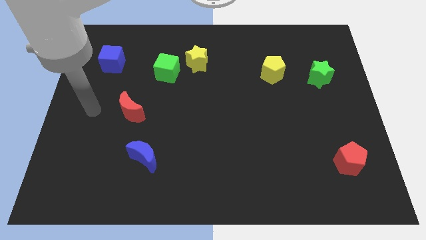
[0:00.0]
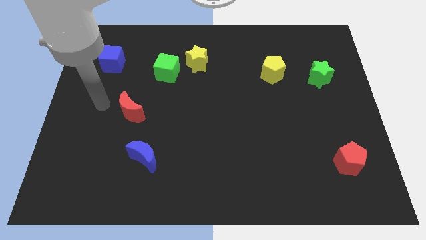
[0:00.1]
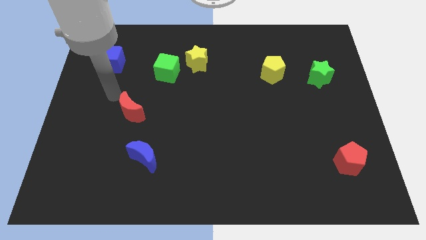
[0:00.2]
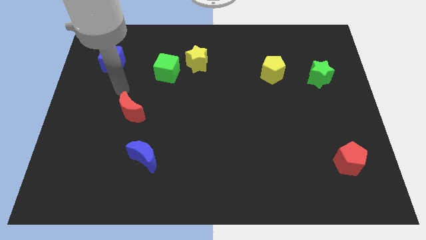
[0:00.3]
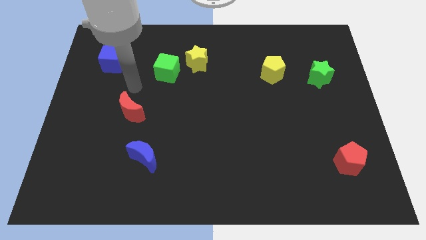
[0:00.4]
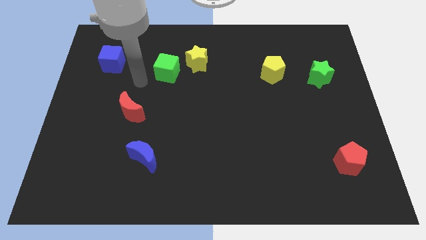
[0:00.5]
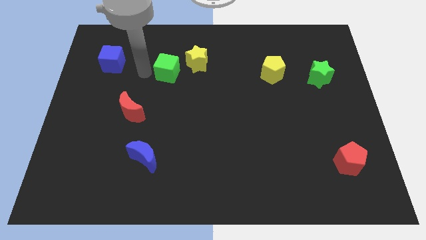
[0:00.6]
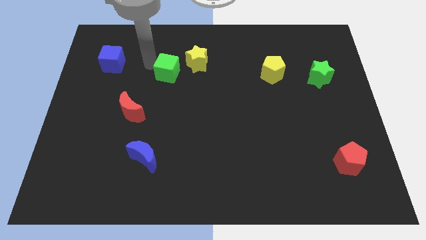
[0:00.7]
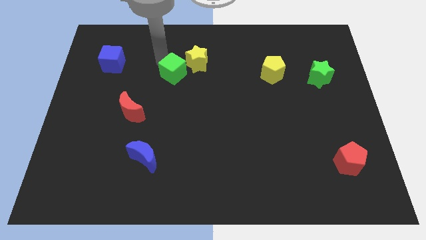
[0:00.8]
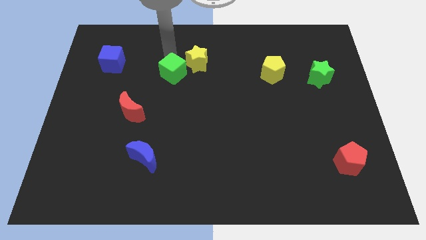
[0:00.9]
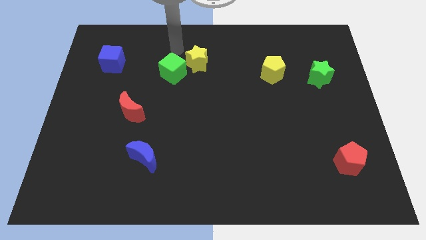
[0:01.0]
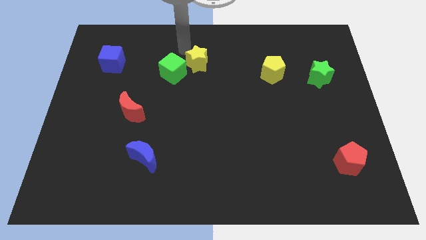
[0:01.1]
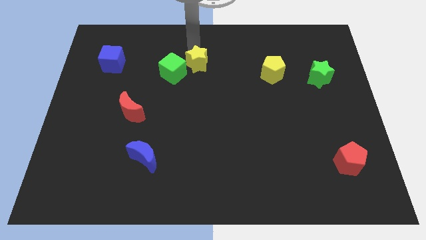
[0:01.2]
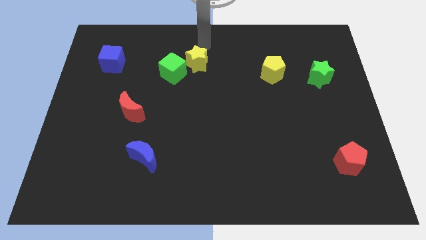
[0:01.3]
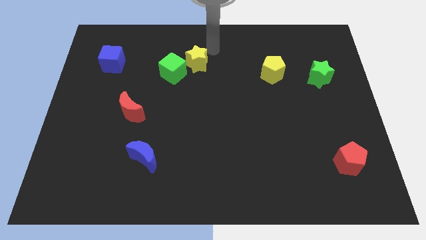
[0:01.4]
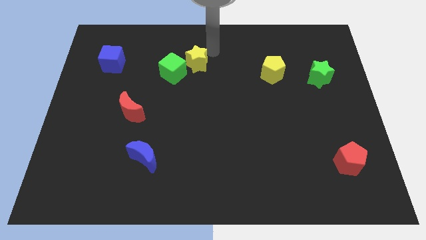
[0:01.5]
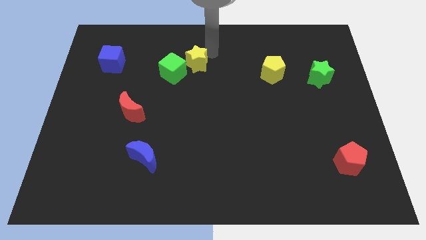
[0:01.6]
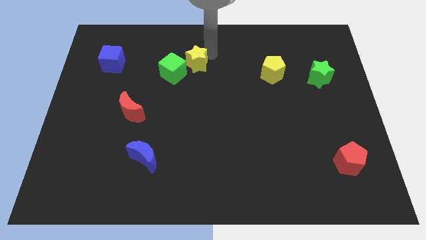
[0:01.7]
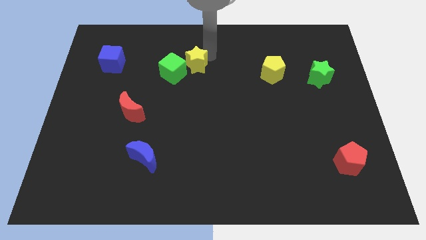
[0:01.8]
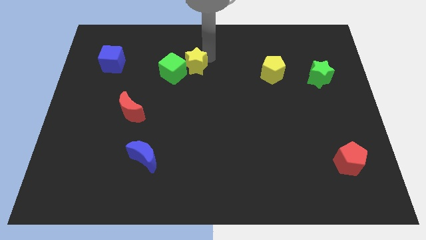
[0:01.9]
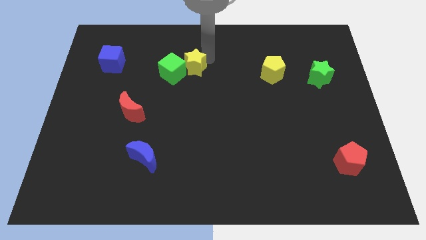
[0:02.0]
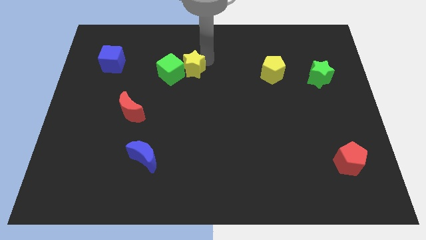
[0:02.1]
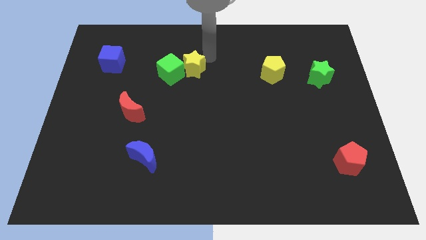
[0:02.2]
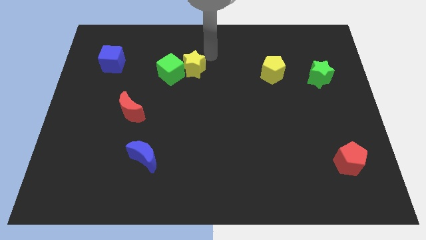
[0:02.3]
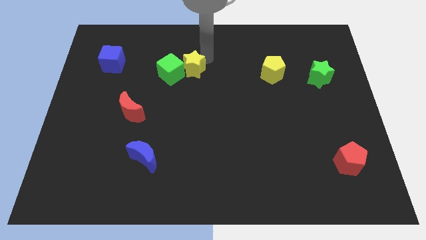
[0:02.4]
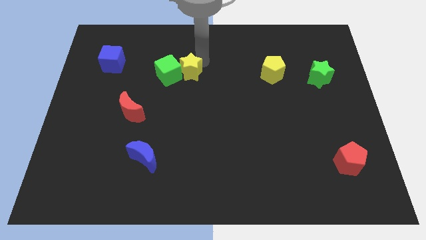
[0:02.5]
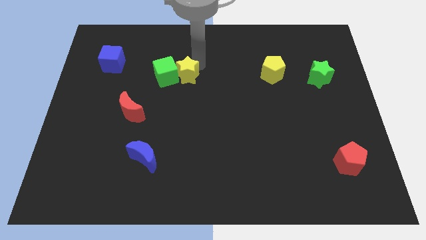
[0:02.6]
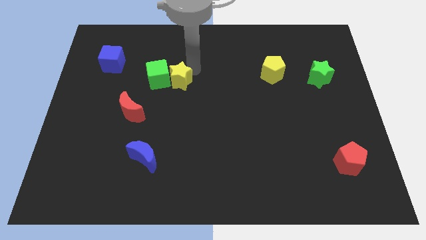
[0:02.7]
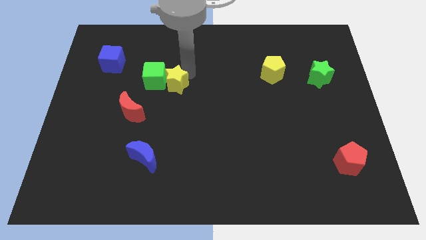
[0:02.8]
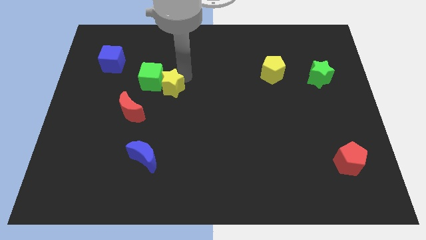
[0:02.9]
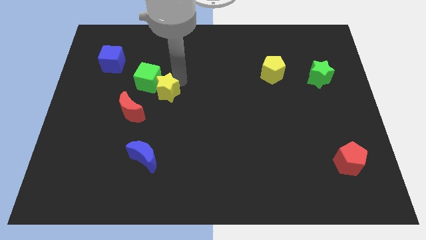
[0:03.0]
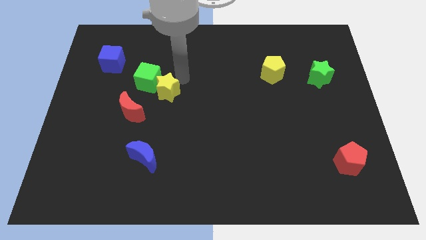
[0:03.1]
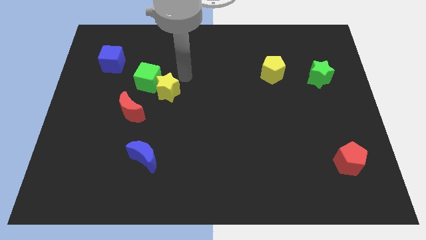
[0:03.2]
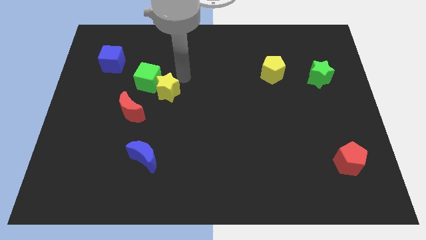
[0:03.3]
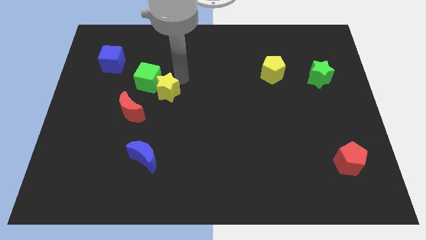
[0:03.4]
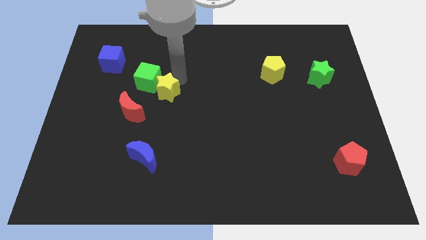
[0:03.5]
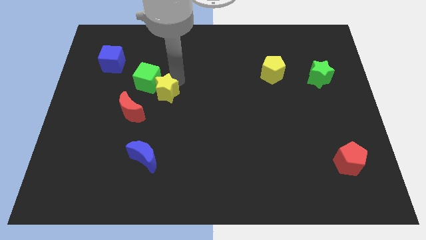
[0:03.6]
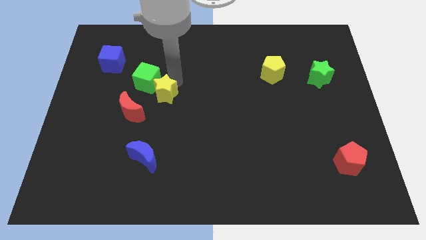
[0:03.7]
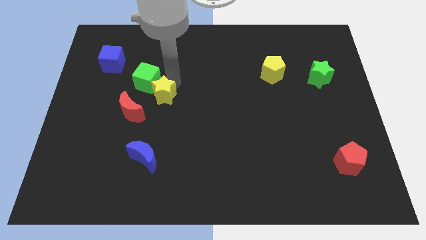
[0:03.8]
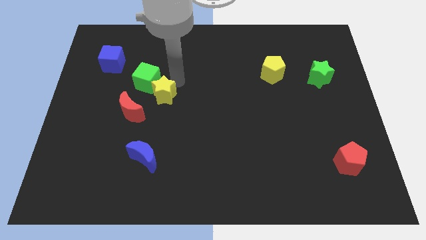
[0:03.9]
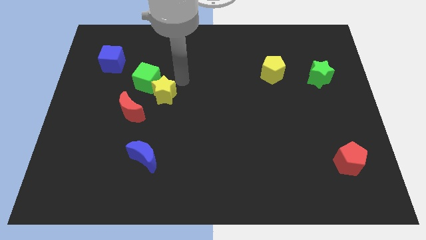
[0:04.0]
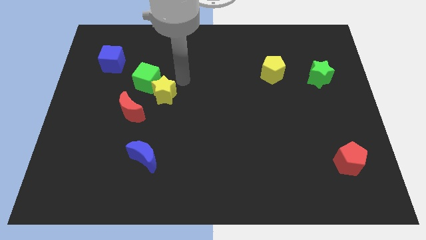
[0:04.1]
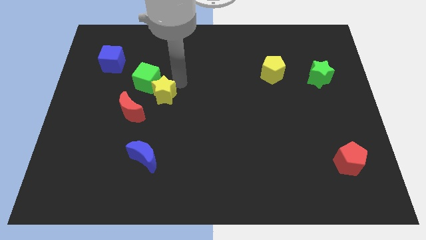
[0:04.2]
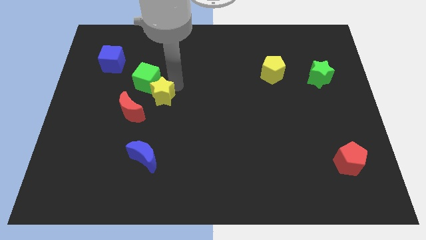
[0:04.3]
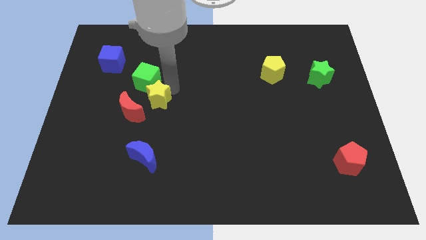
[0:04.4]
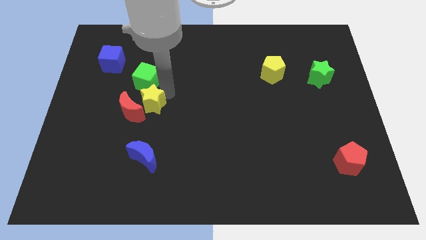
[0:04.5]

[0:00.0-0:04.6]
move the yellow star next to the red moon

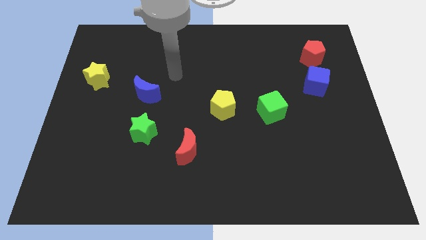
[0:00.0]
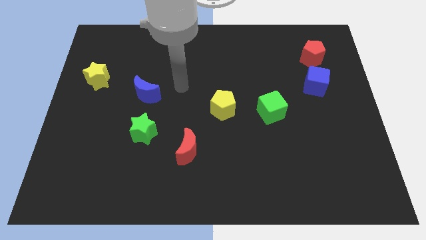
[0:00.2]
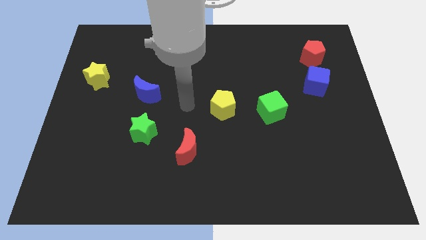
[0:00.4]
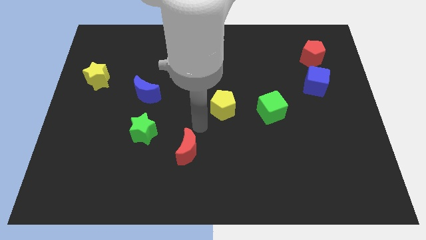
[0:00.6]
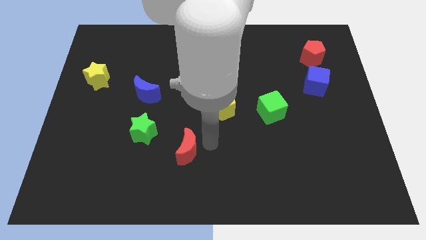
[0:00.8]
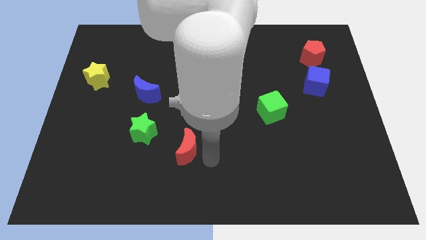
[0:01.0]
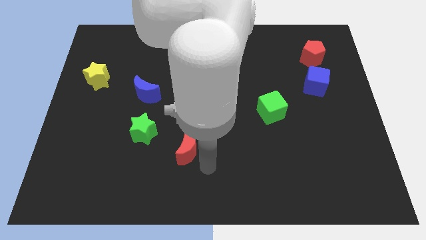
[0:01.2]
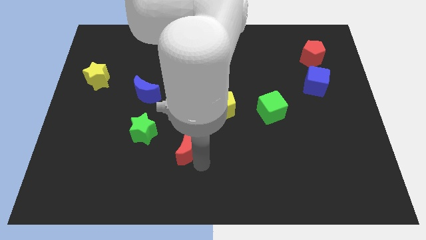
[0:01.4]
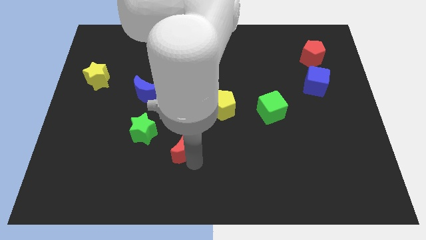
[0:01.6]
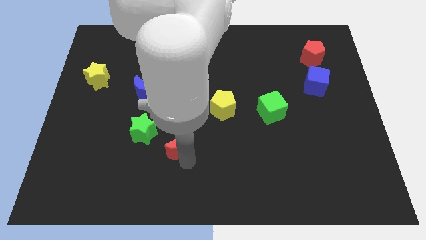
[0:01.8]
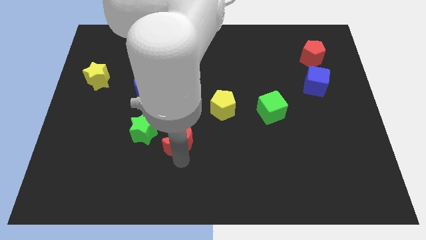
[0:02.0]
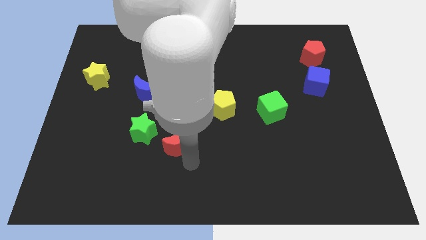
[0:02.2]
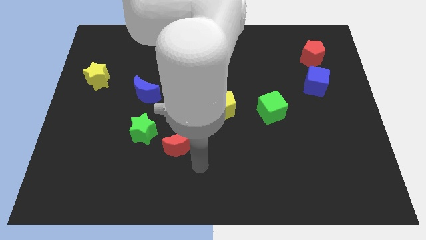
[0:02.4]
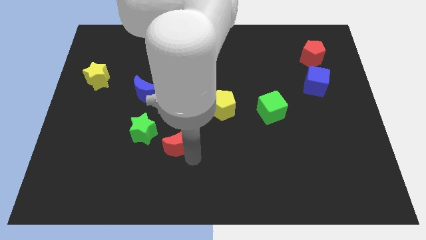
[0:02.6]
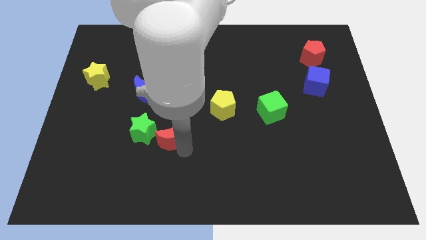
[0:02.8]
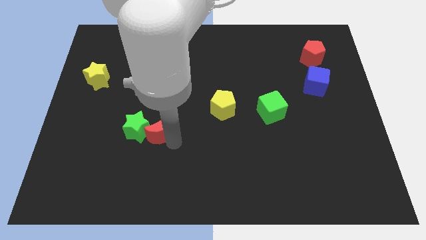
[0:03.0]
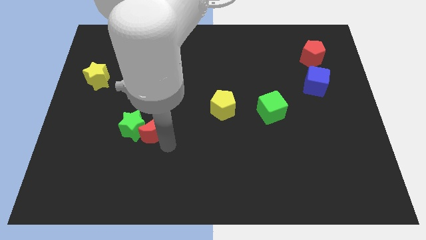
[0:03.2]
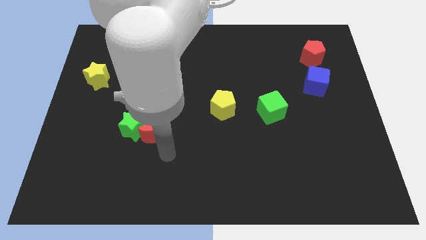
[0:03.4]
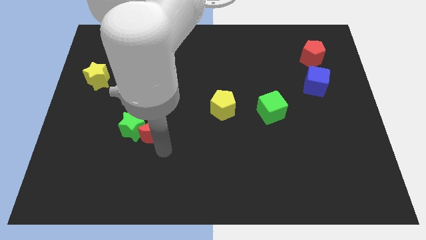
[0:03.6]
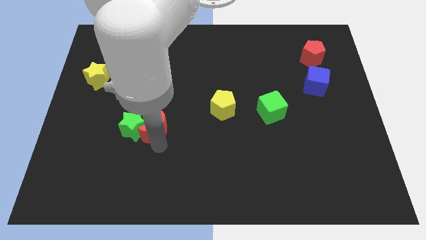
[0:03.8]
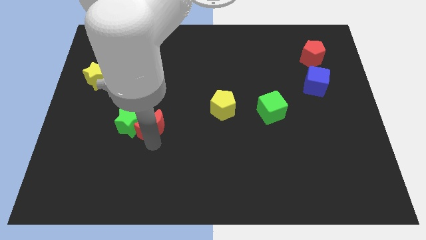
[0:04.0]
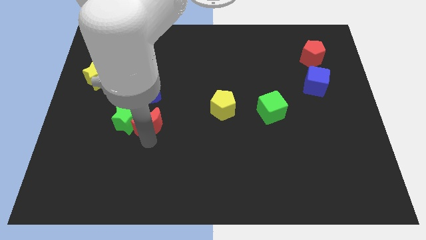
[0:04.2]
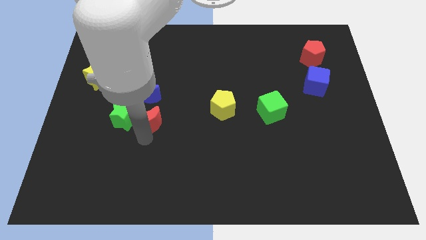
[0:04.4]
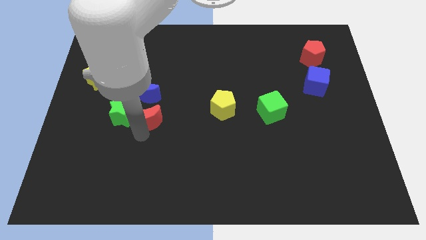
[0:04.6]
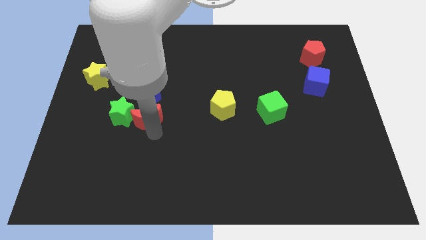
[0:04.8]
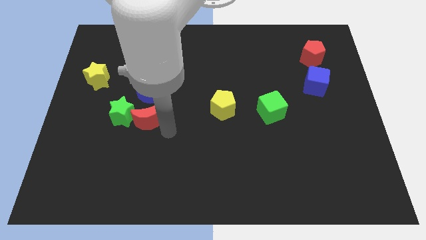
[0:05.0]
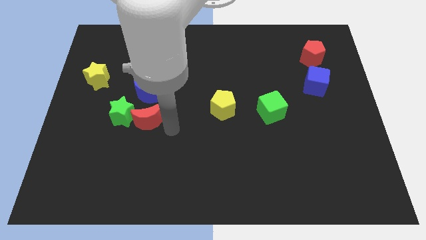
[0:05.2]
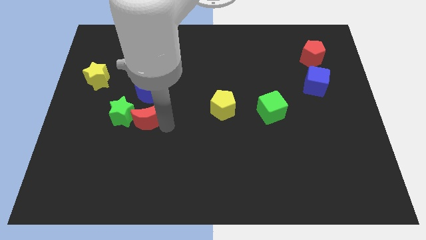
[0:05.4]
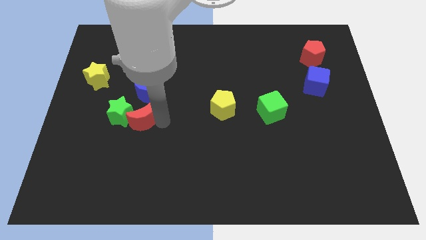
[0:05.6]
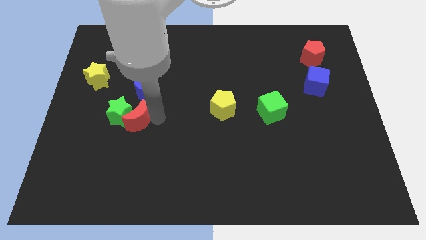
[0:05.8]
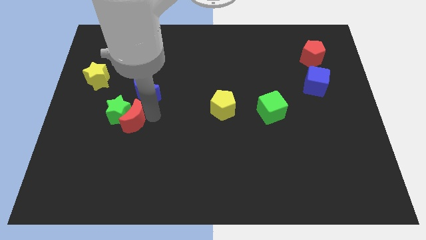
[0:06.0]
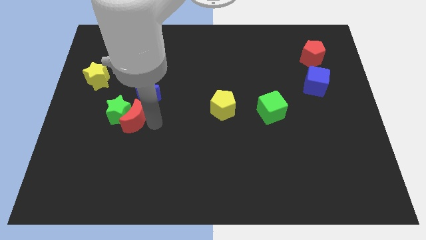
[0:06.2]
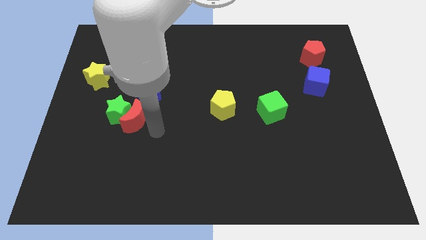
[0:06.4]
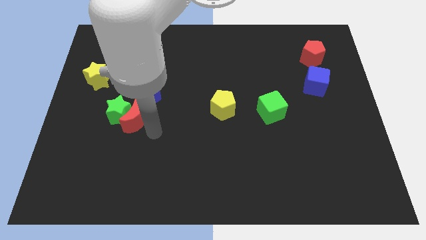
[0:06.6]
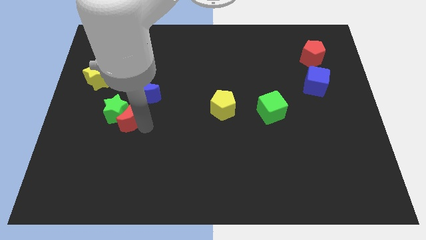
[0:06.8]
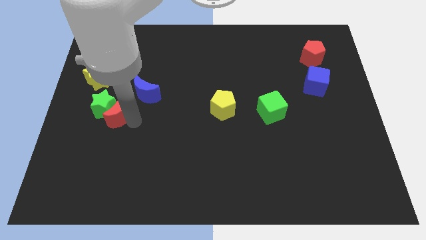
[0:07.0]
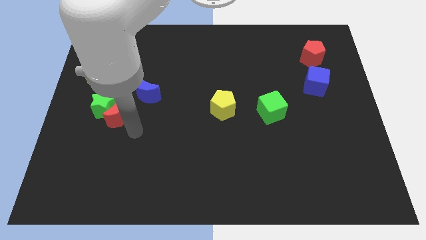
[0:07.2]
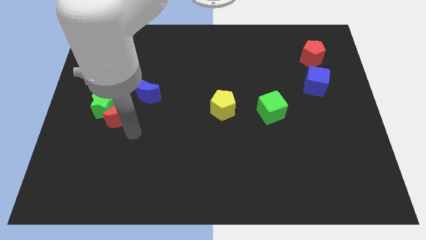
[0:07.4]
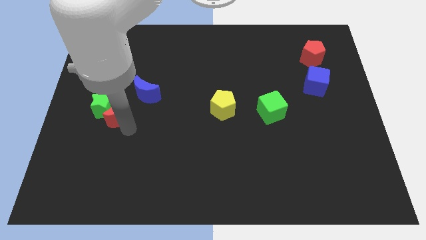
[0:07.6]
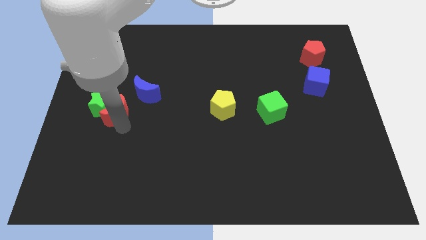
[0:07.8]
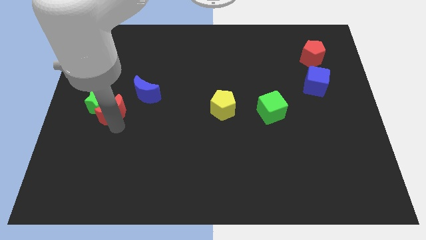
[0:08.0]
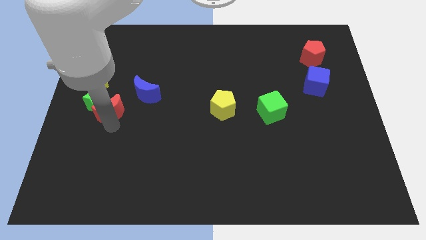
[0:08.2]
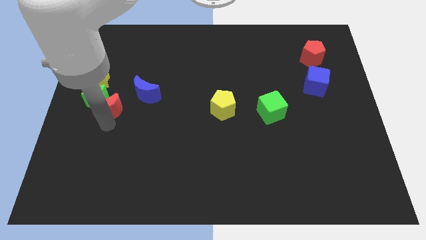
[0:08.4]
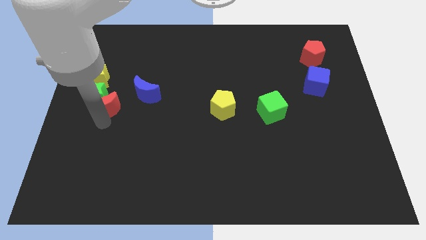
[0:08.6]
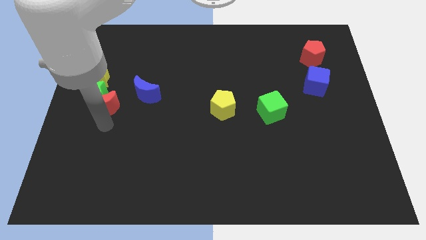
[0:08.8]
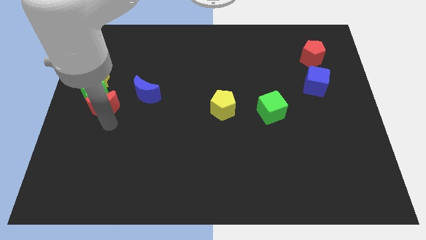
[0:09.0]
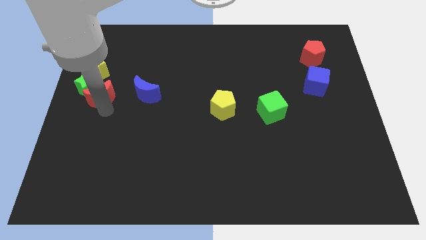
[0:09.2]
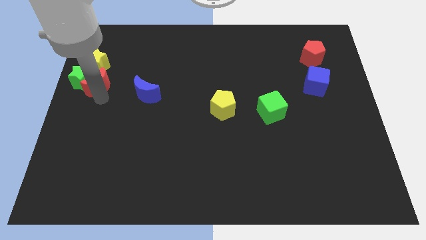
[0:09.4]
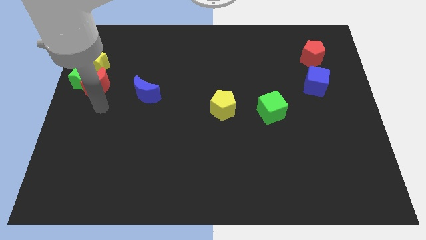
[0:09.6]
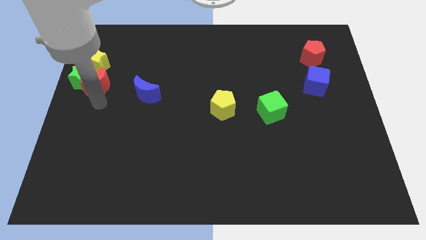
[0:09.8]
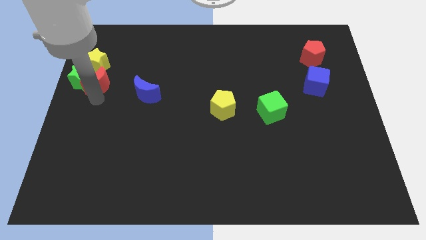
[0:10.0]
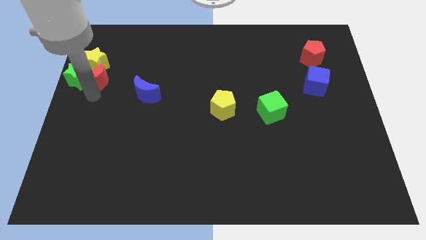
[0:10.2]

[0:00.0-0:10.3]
put the red moon towards the yellow star
